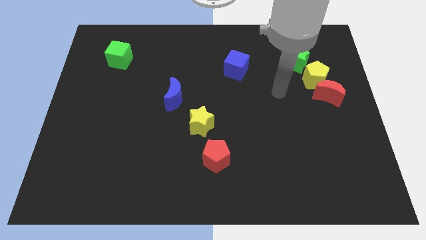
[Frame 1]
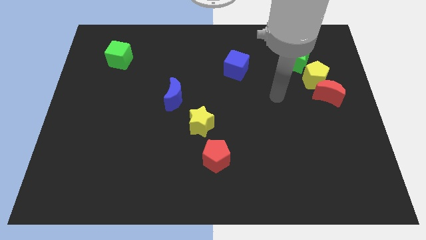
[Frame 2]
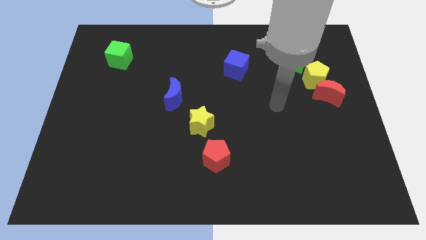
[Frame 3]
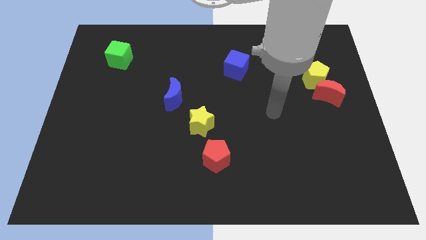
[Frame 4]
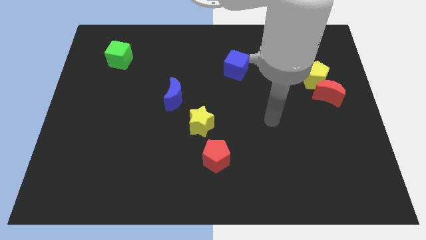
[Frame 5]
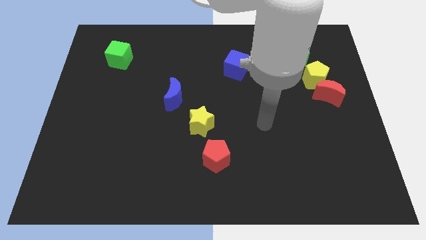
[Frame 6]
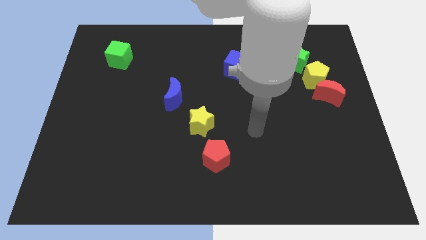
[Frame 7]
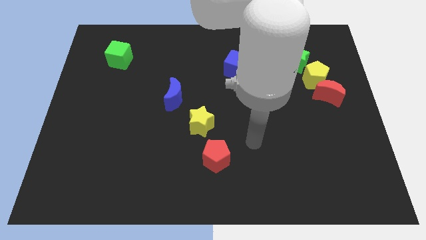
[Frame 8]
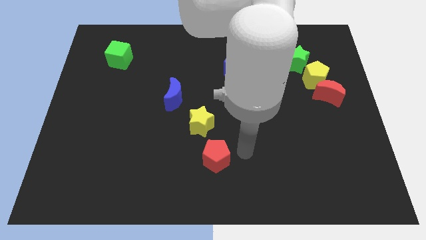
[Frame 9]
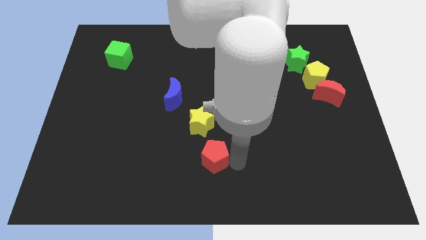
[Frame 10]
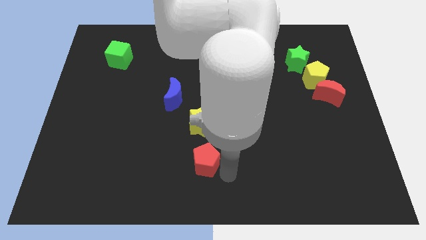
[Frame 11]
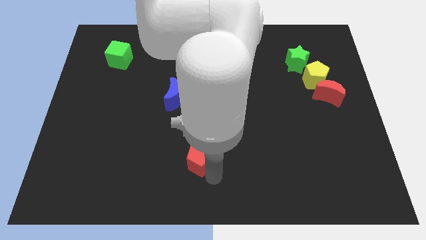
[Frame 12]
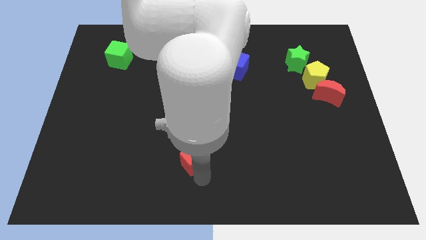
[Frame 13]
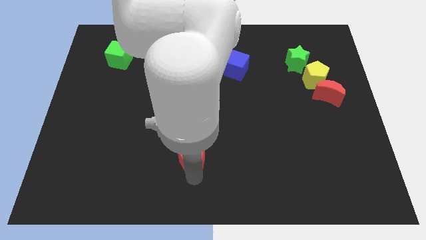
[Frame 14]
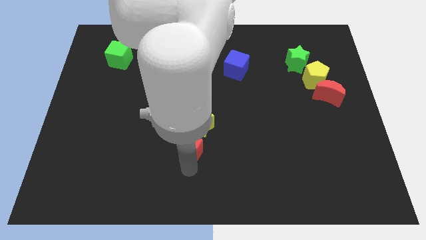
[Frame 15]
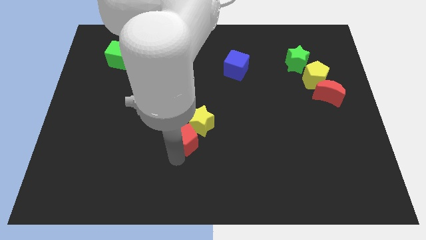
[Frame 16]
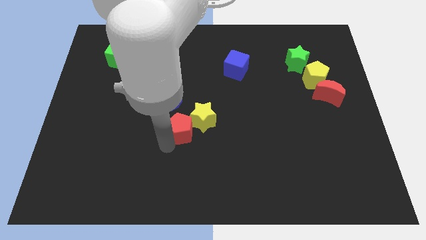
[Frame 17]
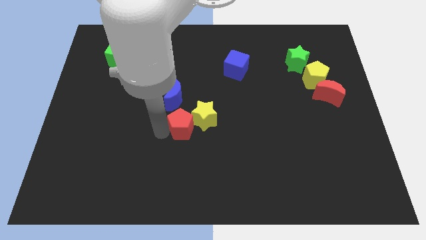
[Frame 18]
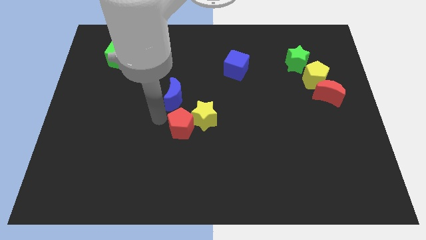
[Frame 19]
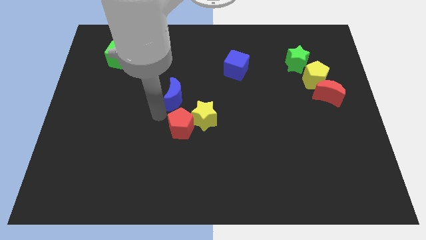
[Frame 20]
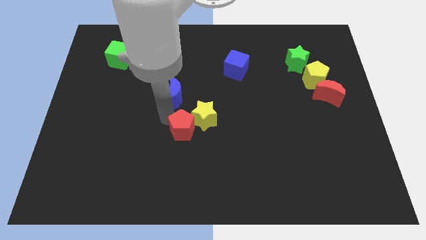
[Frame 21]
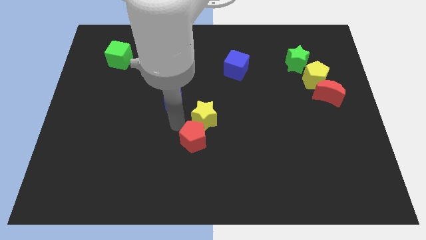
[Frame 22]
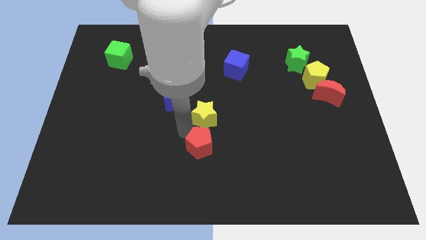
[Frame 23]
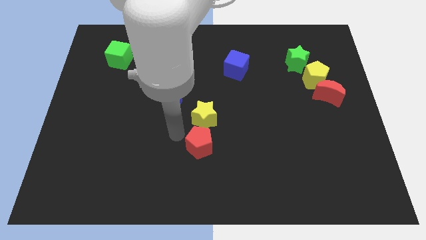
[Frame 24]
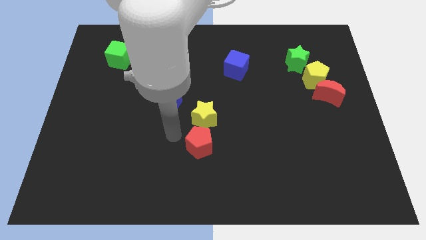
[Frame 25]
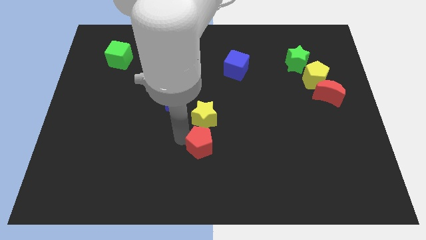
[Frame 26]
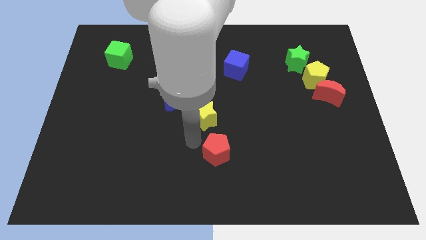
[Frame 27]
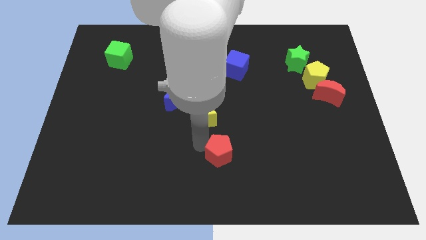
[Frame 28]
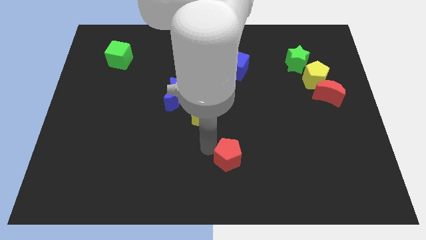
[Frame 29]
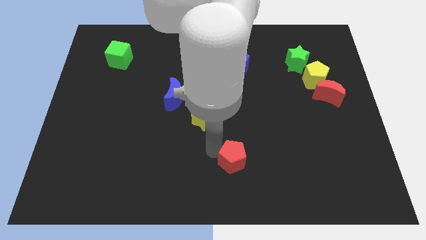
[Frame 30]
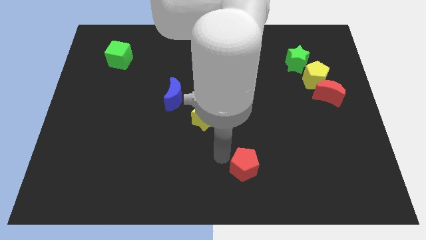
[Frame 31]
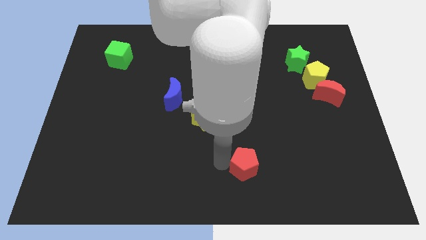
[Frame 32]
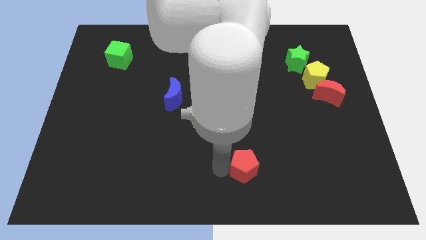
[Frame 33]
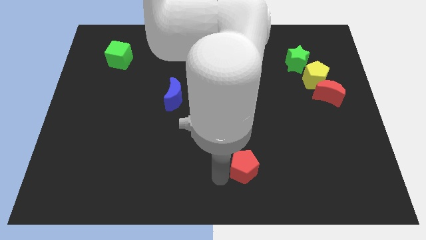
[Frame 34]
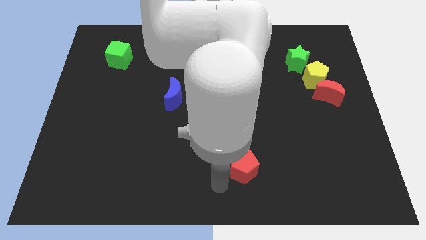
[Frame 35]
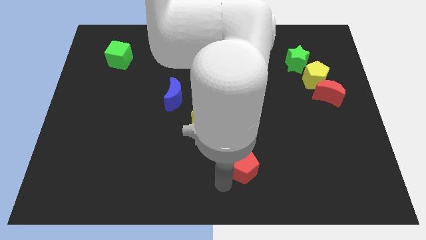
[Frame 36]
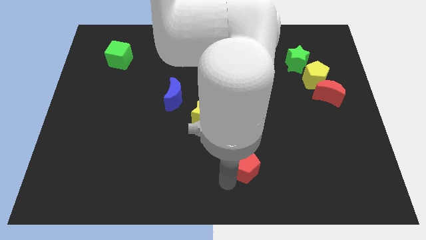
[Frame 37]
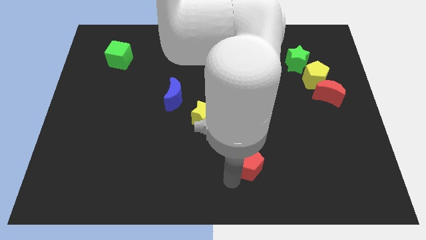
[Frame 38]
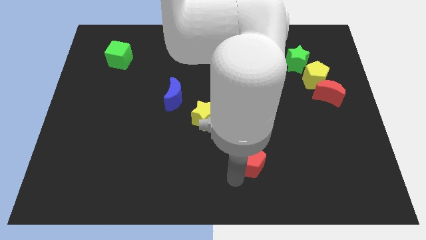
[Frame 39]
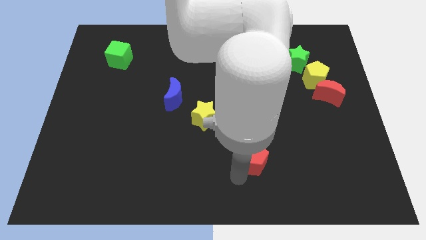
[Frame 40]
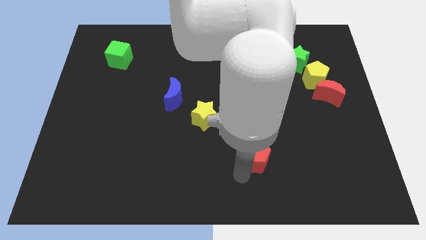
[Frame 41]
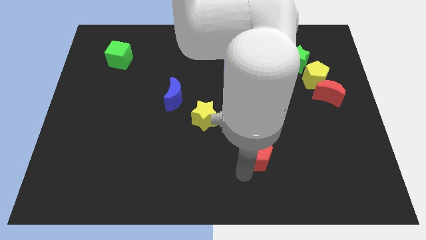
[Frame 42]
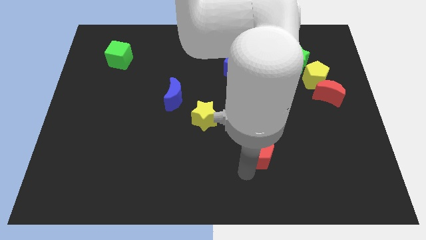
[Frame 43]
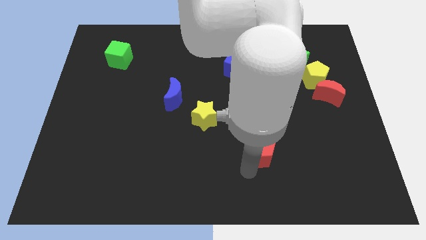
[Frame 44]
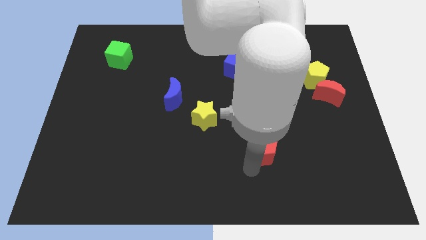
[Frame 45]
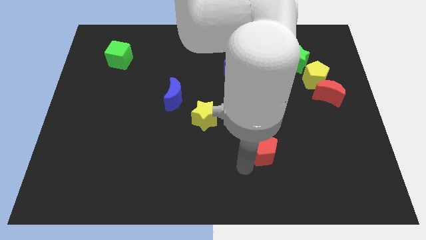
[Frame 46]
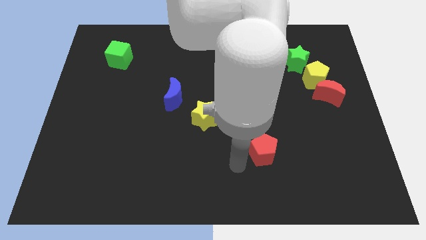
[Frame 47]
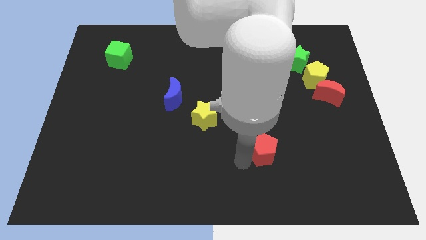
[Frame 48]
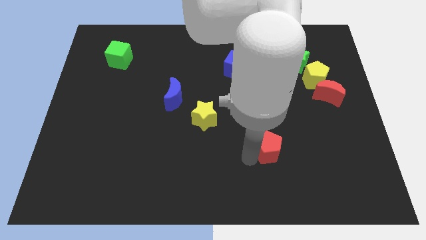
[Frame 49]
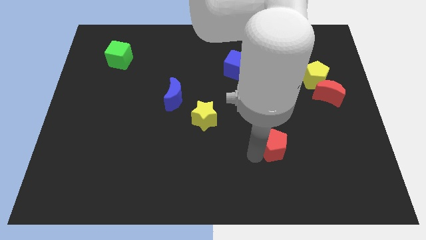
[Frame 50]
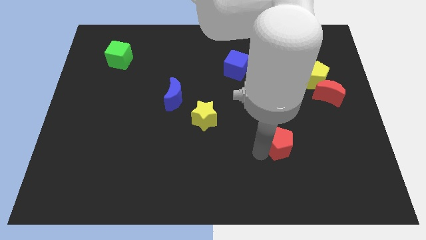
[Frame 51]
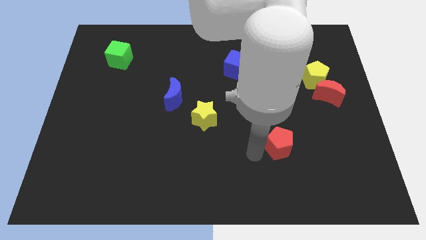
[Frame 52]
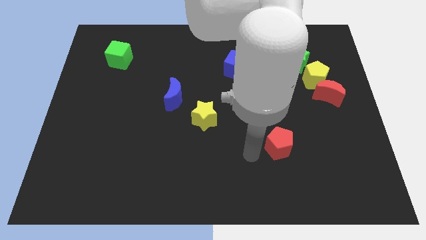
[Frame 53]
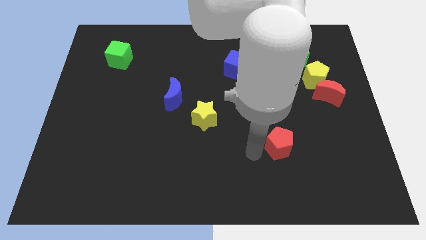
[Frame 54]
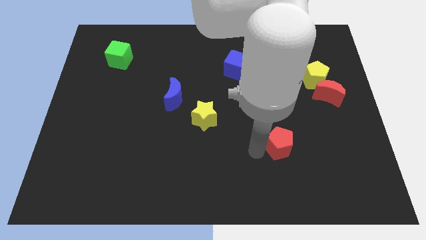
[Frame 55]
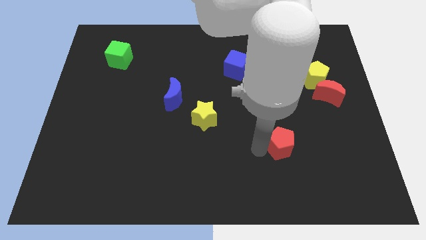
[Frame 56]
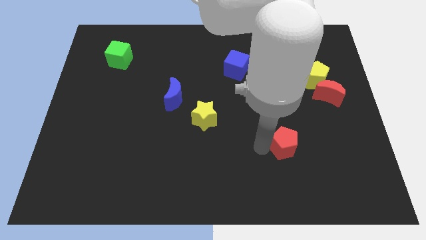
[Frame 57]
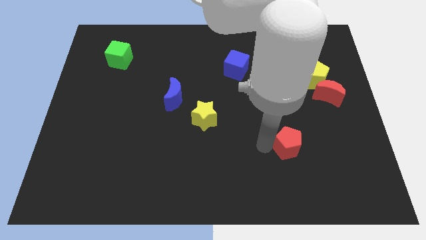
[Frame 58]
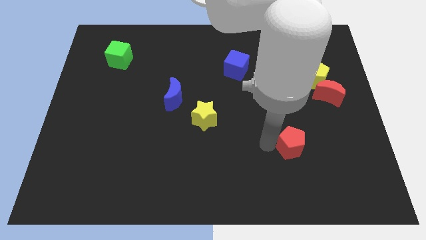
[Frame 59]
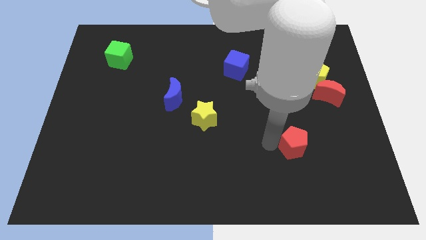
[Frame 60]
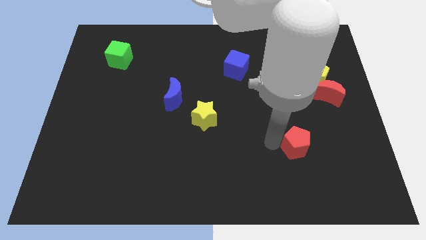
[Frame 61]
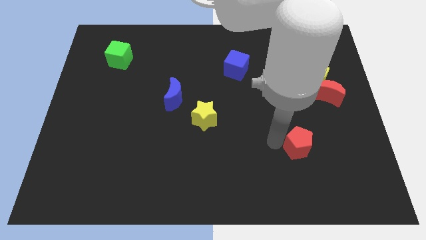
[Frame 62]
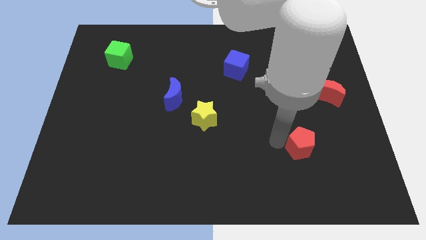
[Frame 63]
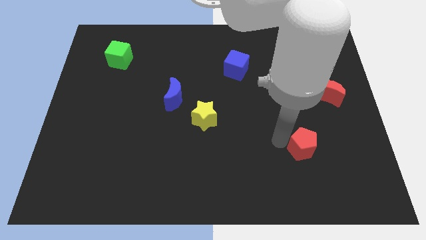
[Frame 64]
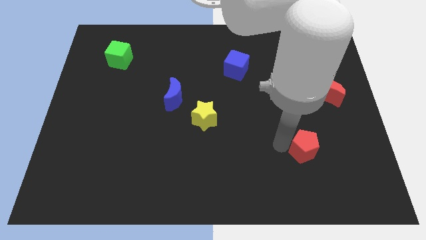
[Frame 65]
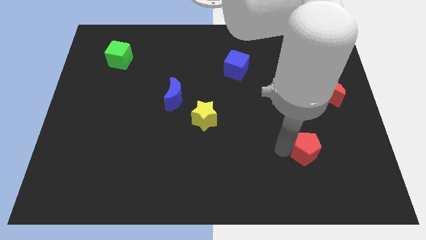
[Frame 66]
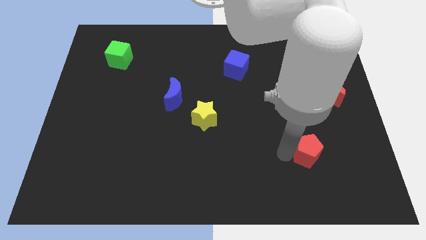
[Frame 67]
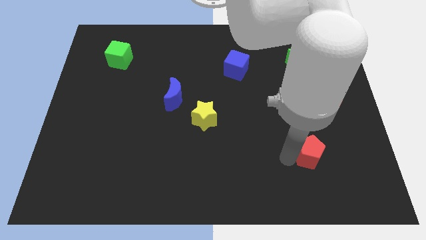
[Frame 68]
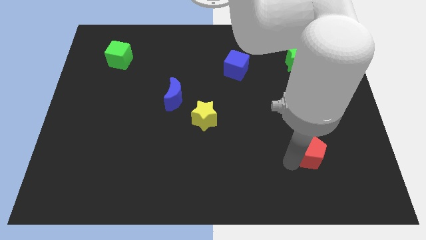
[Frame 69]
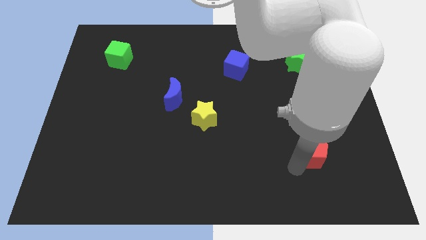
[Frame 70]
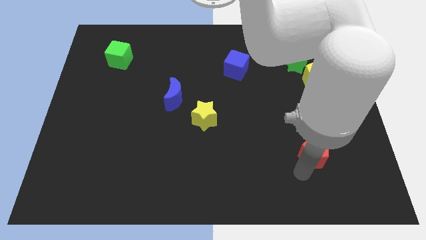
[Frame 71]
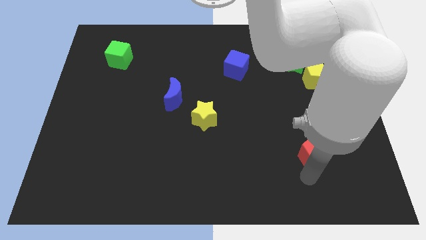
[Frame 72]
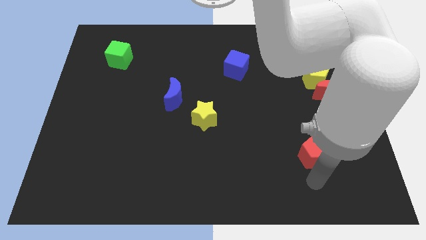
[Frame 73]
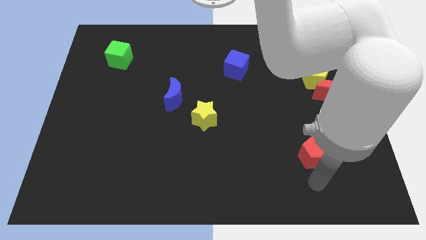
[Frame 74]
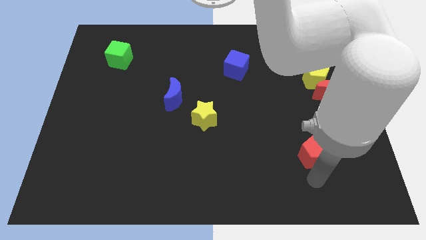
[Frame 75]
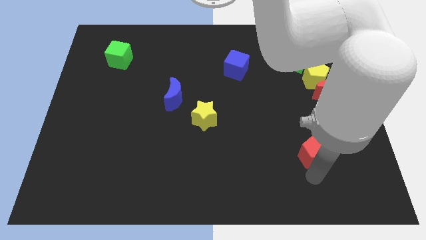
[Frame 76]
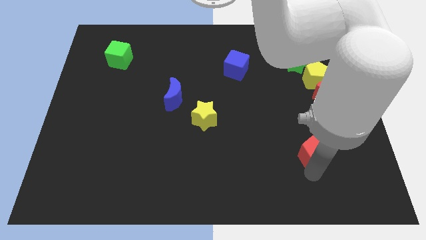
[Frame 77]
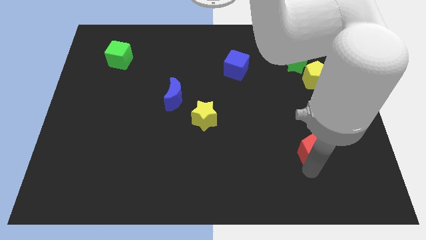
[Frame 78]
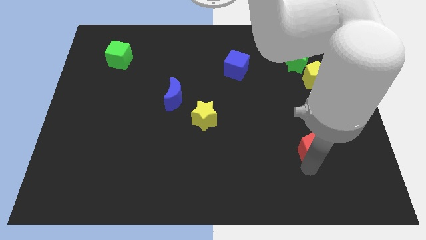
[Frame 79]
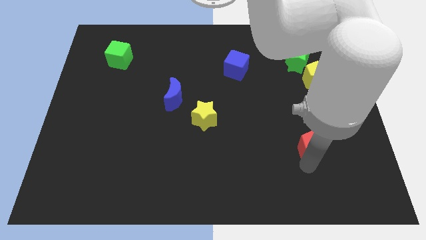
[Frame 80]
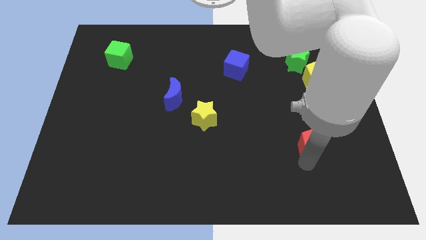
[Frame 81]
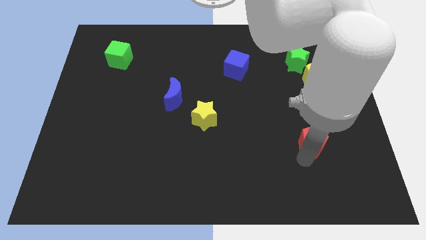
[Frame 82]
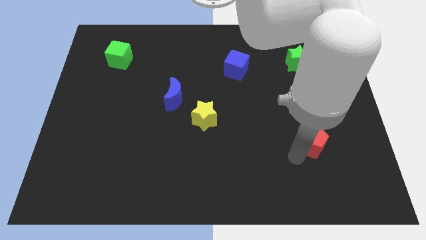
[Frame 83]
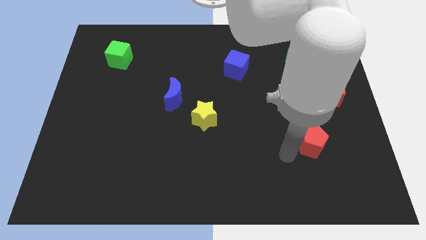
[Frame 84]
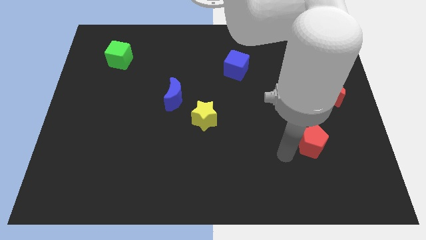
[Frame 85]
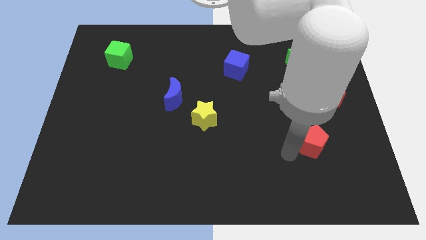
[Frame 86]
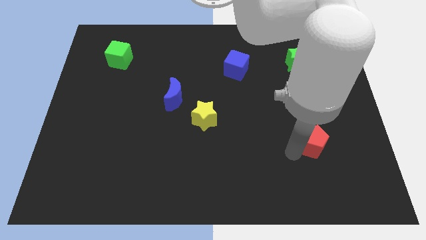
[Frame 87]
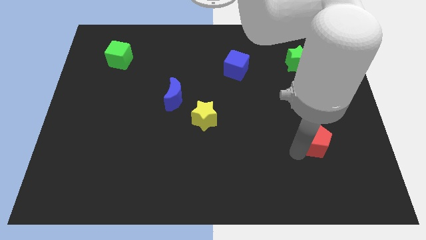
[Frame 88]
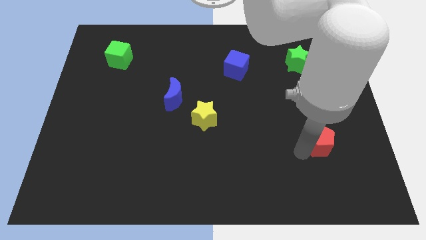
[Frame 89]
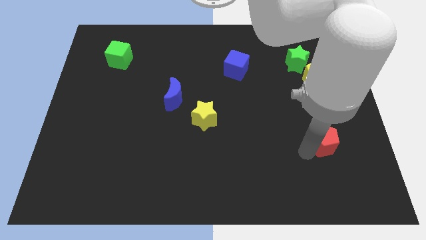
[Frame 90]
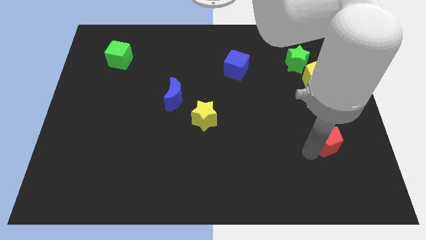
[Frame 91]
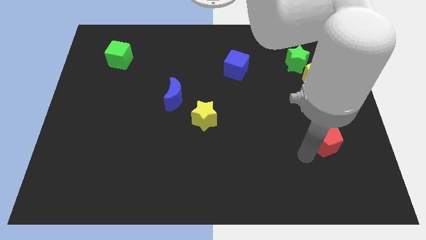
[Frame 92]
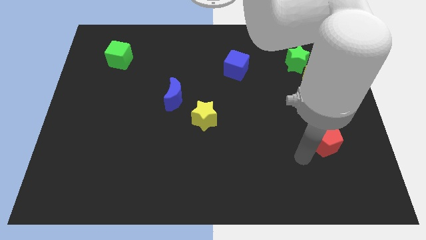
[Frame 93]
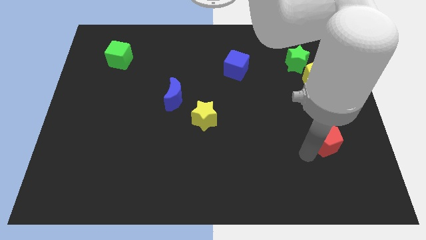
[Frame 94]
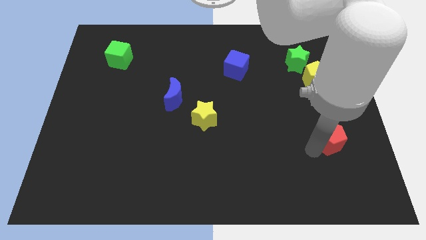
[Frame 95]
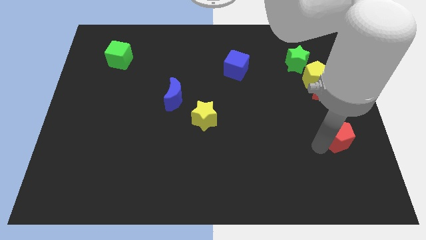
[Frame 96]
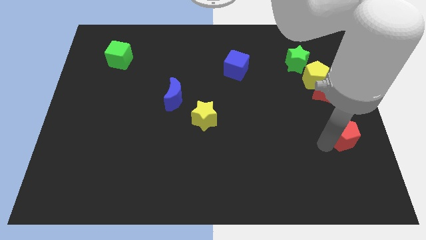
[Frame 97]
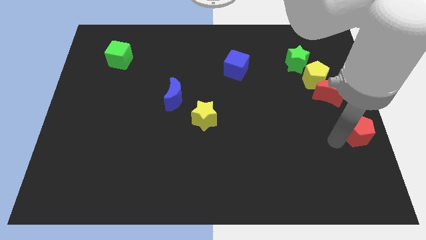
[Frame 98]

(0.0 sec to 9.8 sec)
push the red pentagon to the right side of the board
